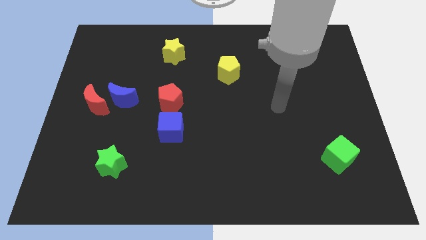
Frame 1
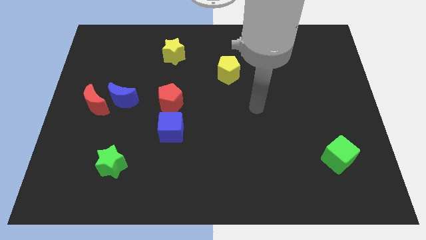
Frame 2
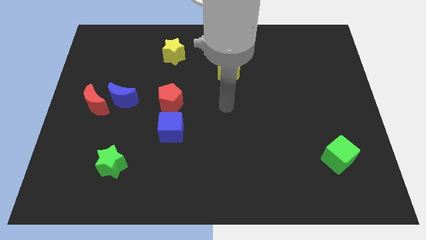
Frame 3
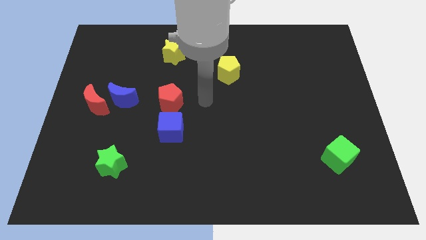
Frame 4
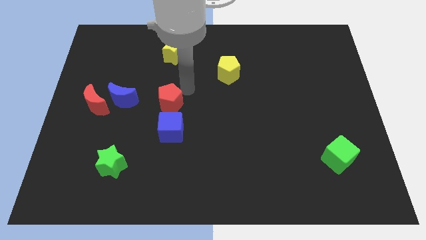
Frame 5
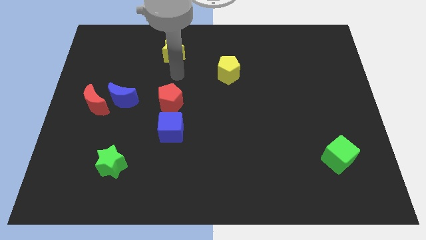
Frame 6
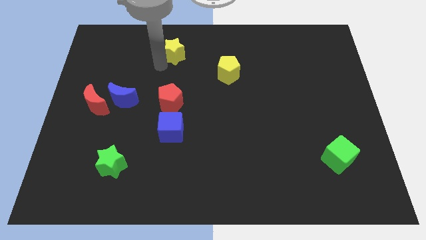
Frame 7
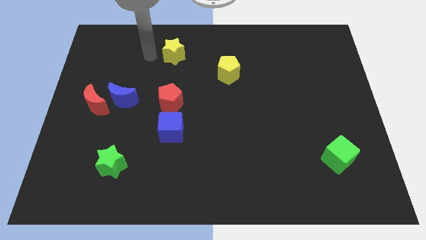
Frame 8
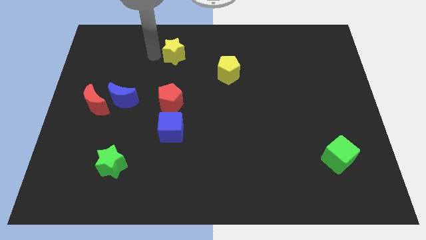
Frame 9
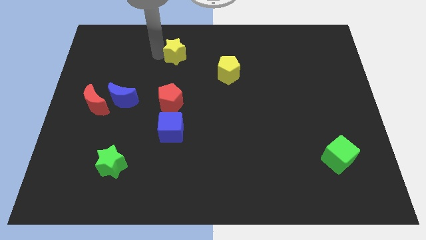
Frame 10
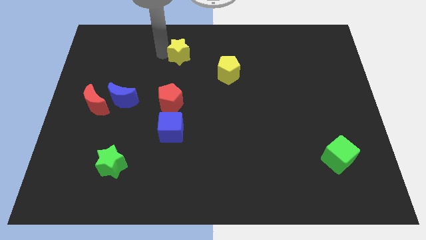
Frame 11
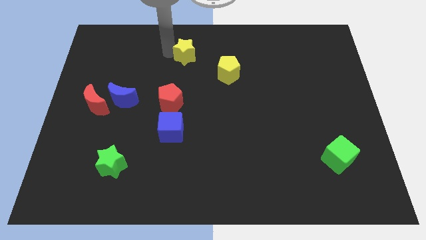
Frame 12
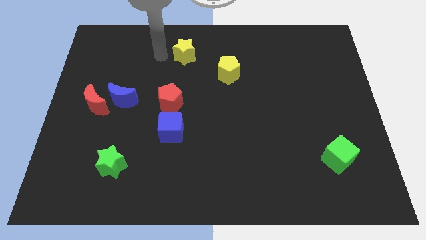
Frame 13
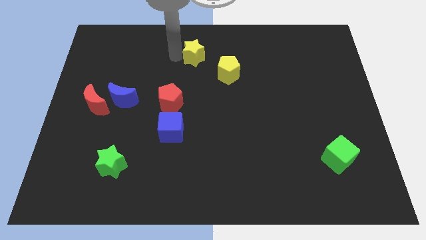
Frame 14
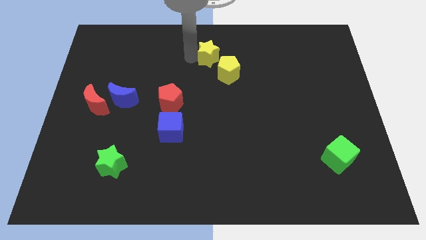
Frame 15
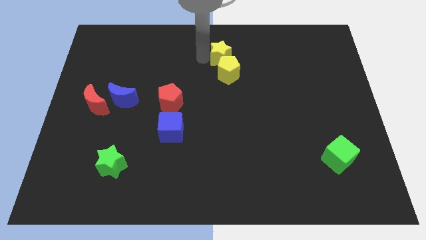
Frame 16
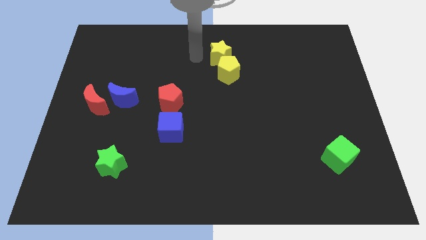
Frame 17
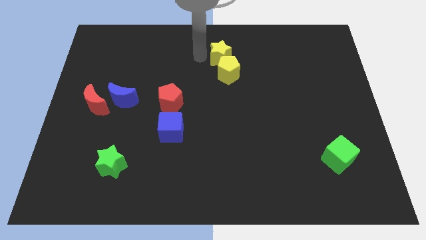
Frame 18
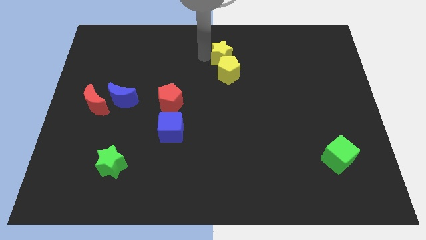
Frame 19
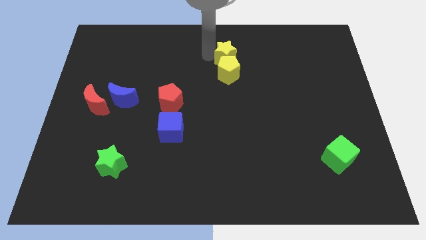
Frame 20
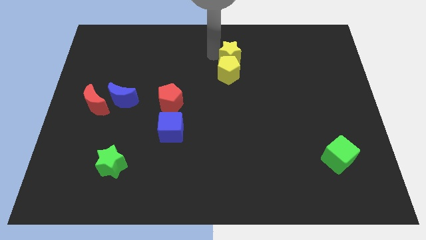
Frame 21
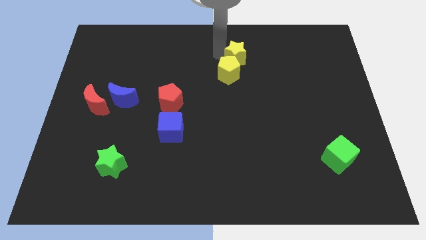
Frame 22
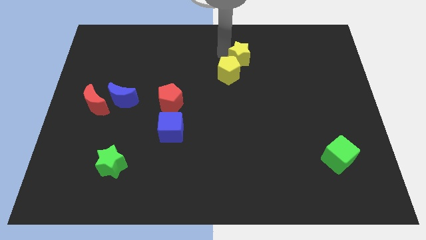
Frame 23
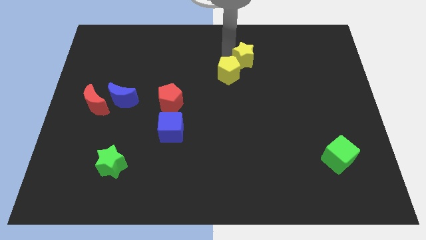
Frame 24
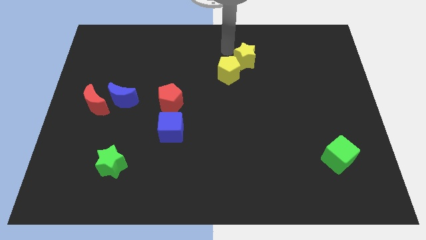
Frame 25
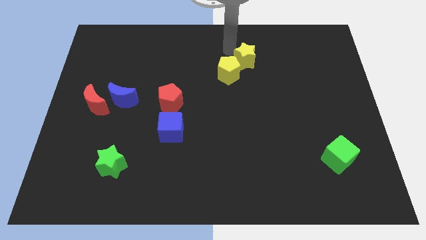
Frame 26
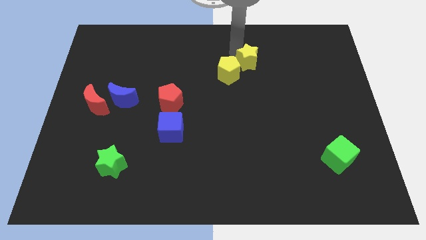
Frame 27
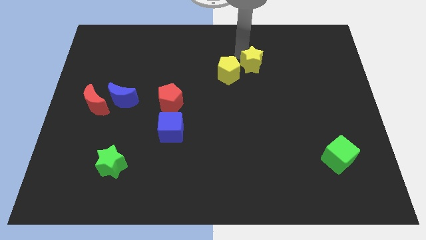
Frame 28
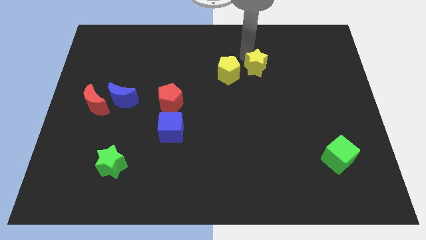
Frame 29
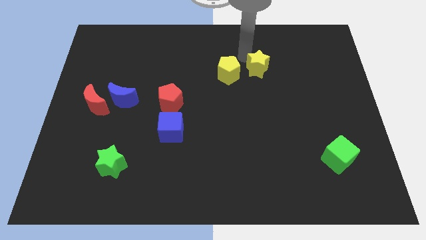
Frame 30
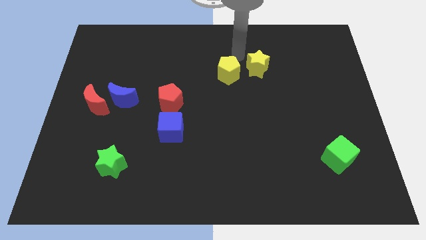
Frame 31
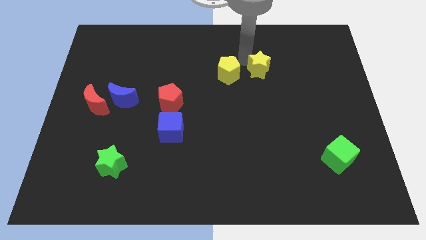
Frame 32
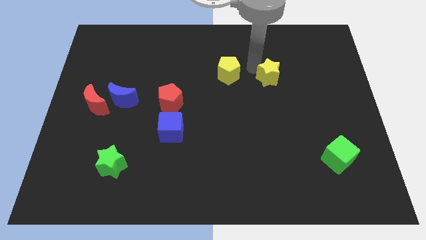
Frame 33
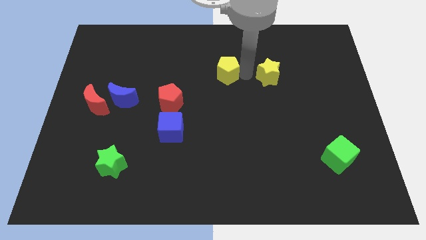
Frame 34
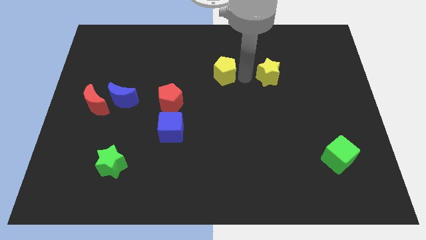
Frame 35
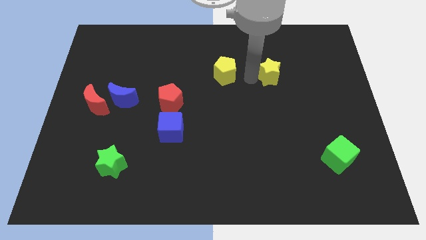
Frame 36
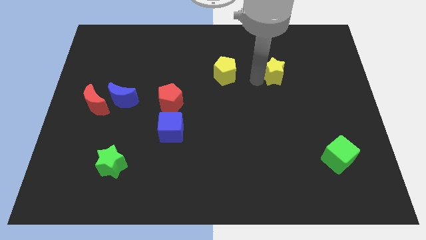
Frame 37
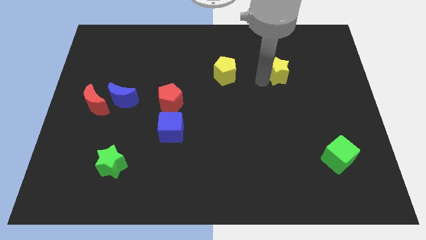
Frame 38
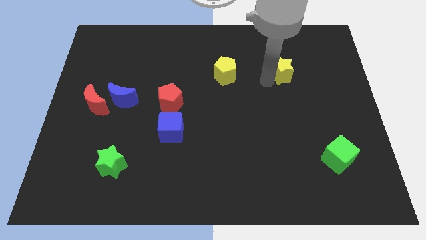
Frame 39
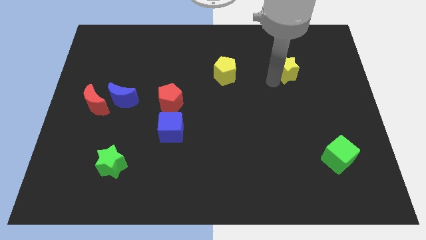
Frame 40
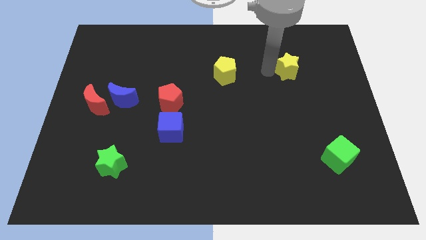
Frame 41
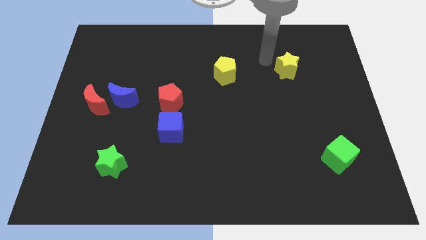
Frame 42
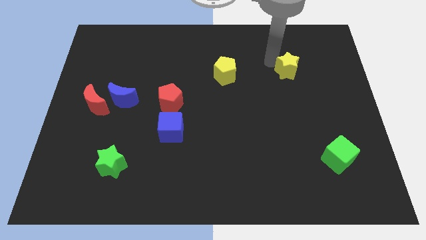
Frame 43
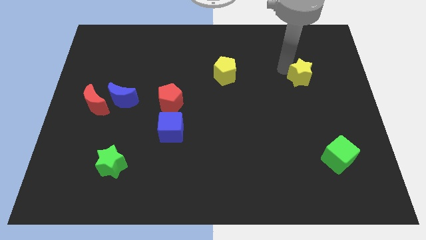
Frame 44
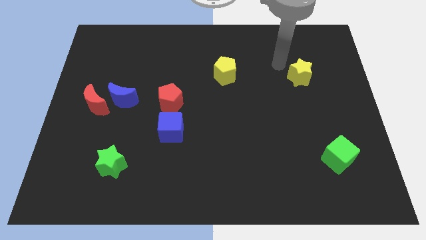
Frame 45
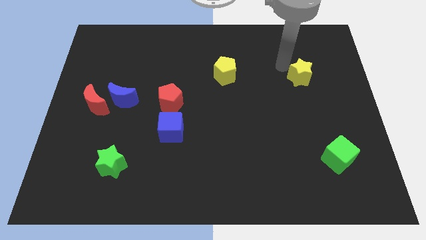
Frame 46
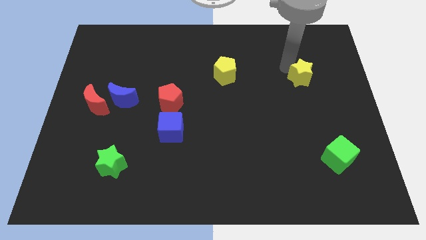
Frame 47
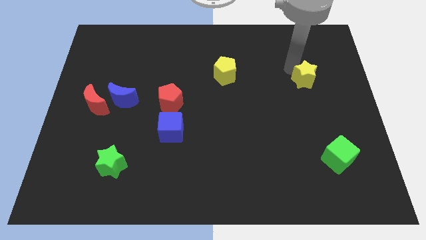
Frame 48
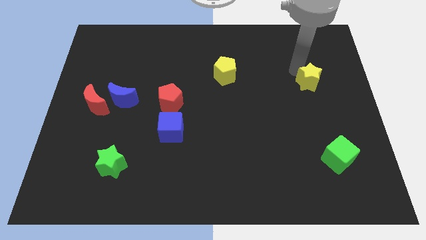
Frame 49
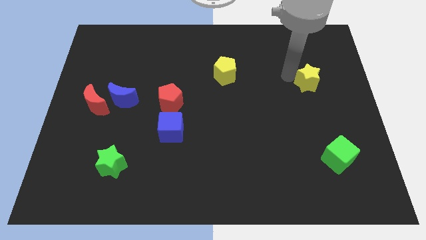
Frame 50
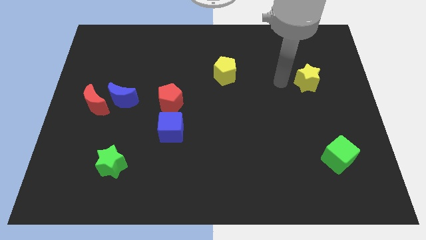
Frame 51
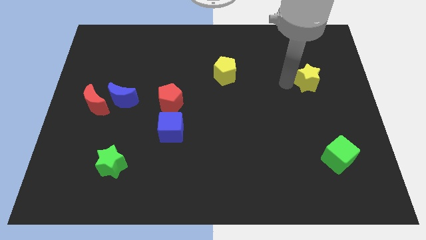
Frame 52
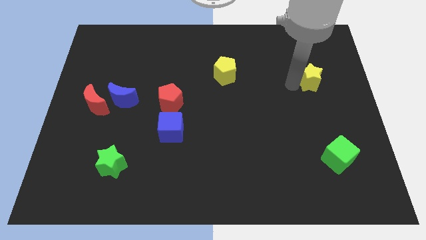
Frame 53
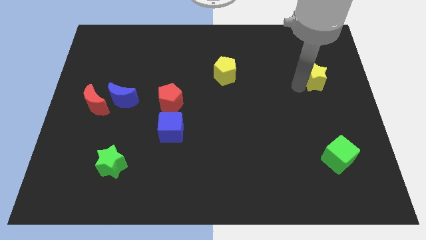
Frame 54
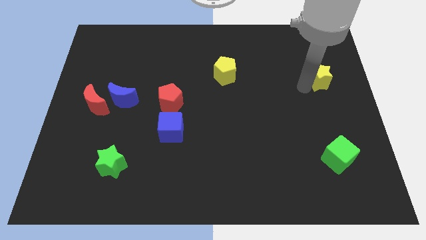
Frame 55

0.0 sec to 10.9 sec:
slide the yellow star to the right side

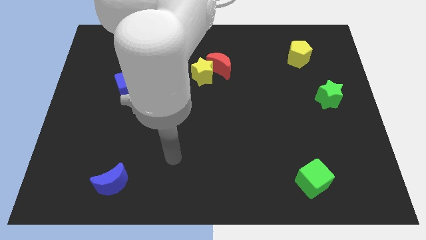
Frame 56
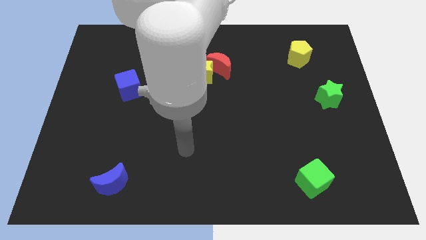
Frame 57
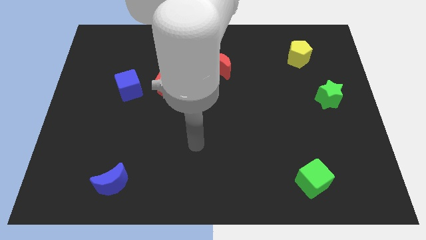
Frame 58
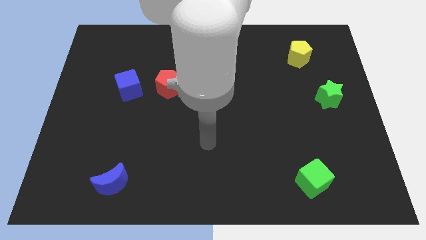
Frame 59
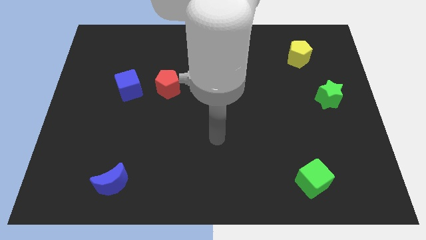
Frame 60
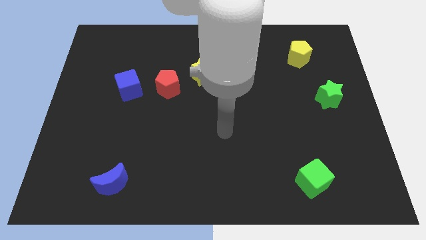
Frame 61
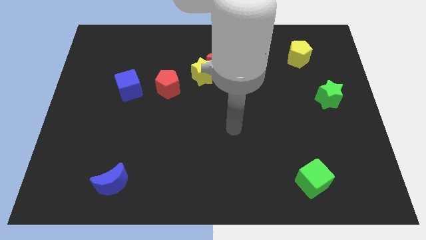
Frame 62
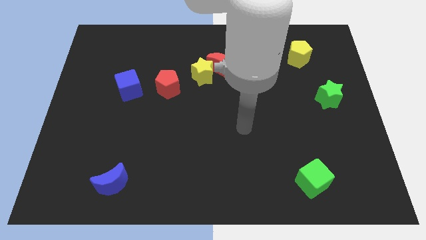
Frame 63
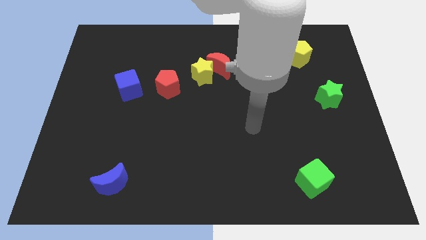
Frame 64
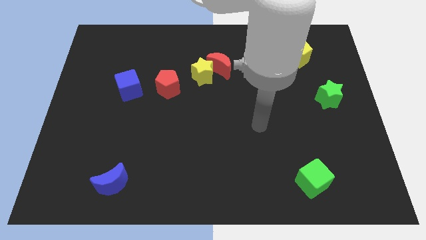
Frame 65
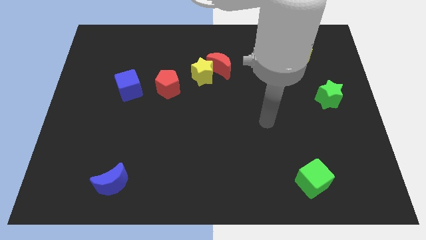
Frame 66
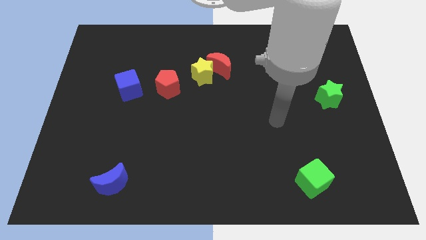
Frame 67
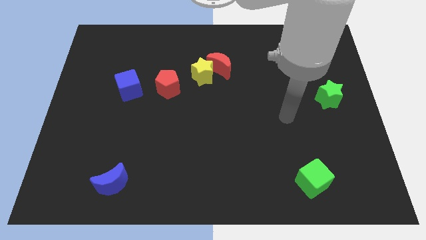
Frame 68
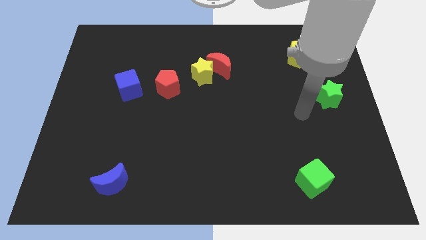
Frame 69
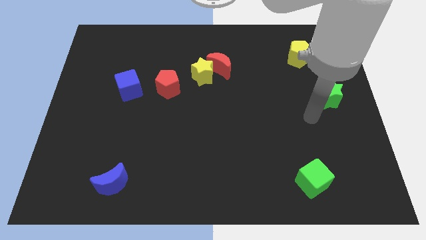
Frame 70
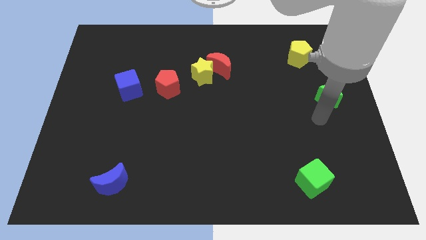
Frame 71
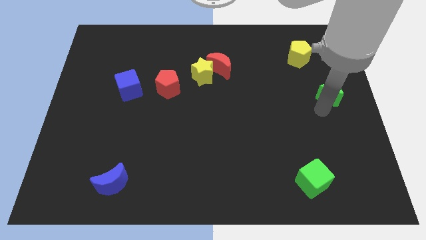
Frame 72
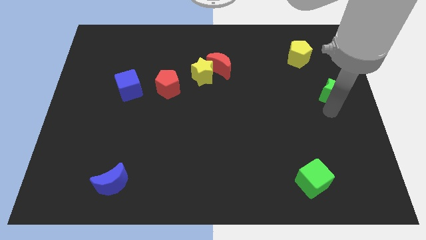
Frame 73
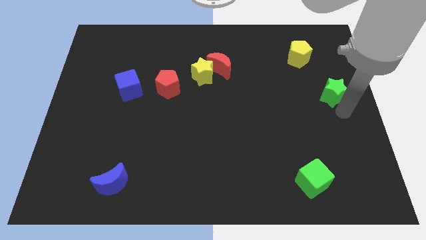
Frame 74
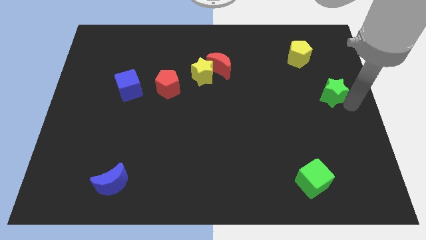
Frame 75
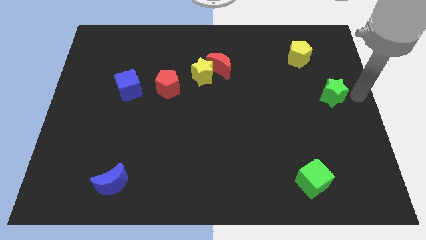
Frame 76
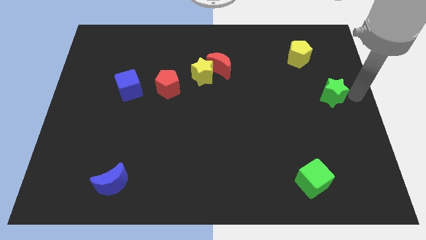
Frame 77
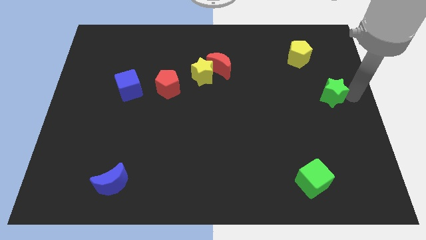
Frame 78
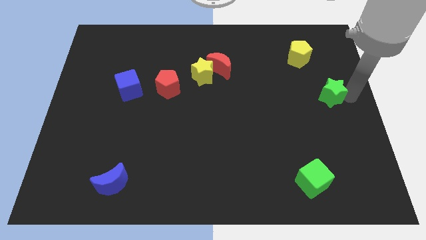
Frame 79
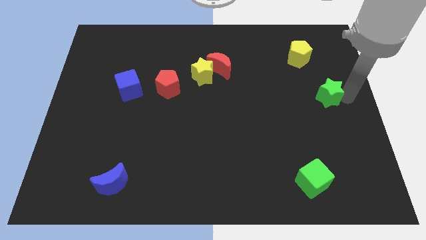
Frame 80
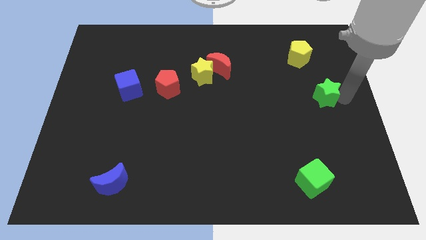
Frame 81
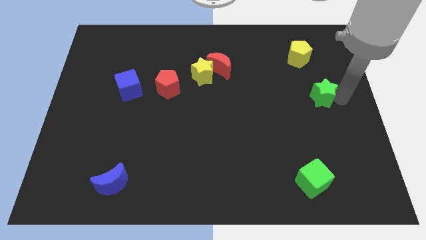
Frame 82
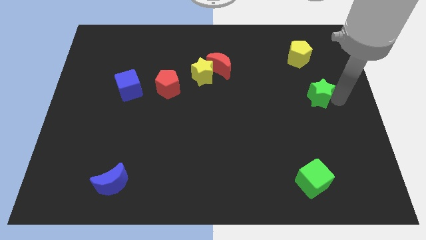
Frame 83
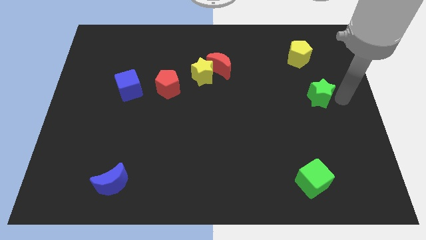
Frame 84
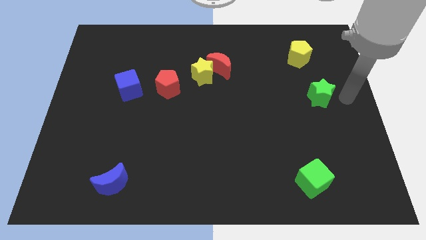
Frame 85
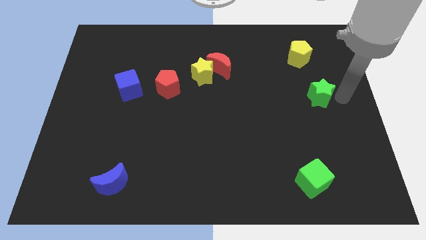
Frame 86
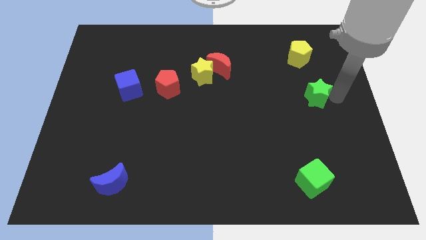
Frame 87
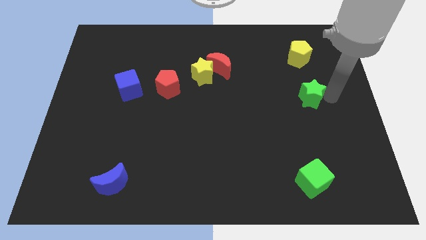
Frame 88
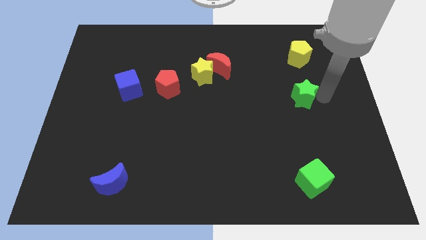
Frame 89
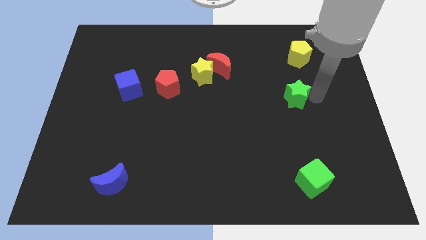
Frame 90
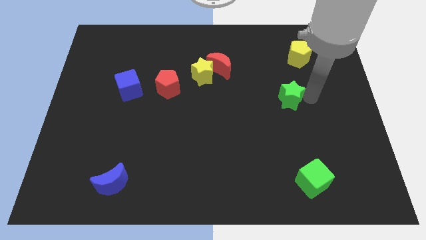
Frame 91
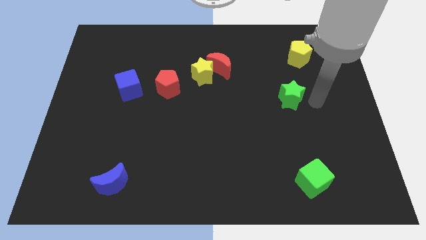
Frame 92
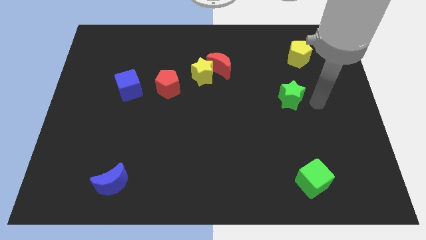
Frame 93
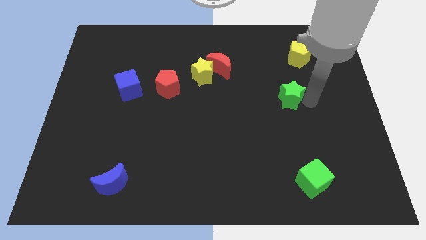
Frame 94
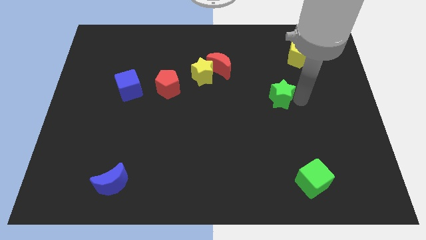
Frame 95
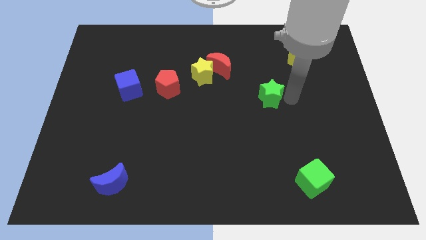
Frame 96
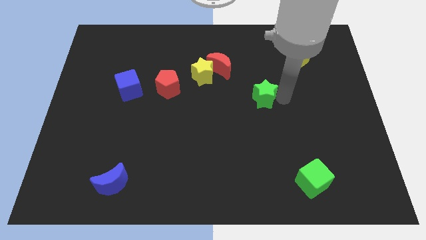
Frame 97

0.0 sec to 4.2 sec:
move the green star to the center
